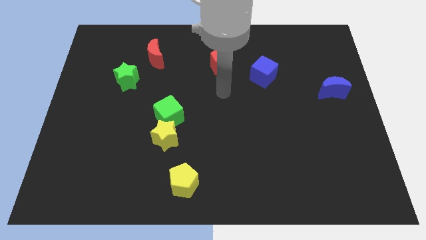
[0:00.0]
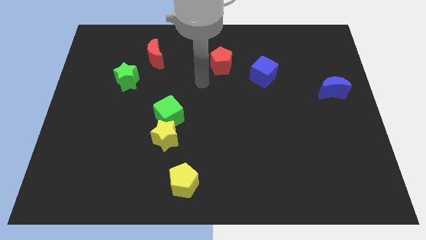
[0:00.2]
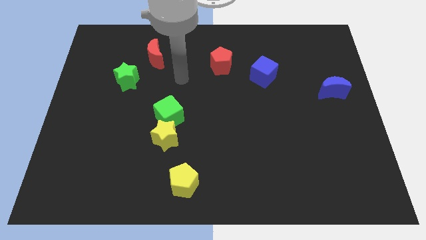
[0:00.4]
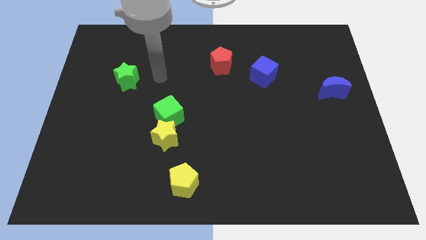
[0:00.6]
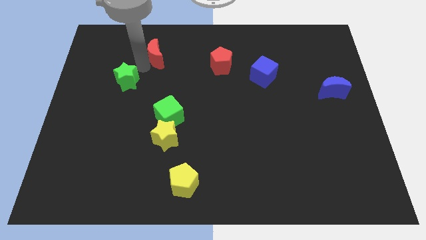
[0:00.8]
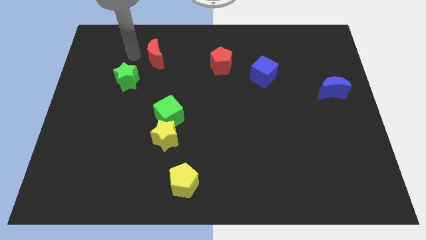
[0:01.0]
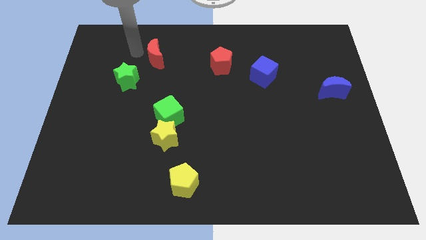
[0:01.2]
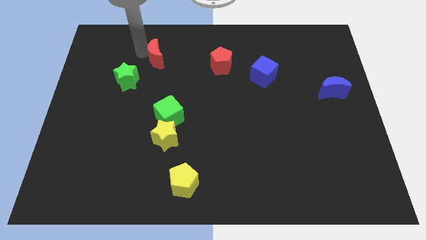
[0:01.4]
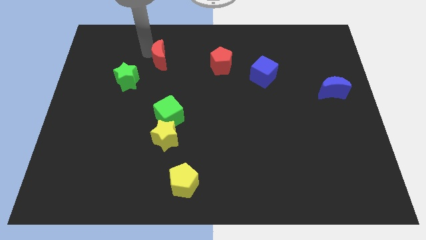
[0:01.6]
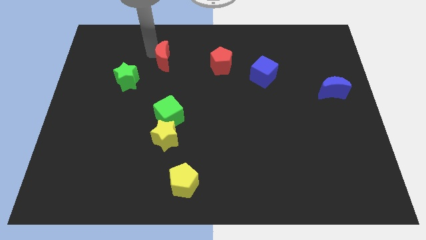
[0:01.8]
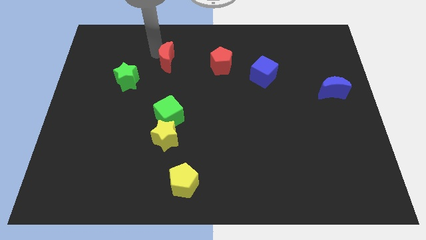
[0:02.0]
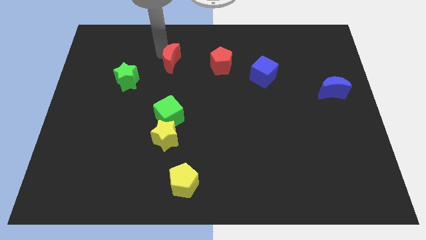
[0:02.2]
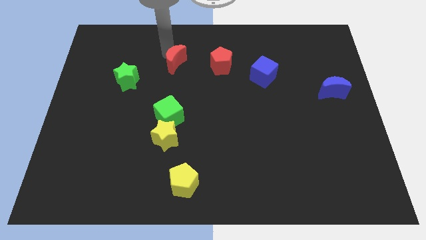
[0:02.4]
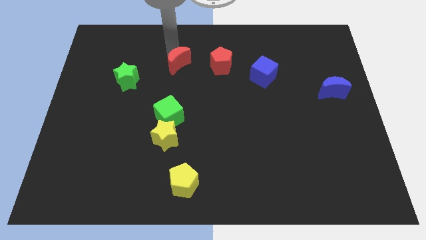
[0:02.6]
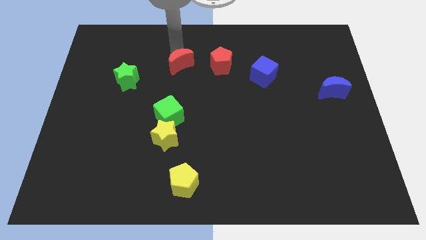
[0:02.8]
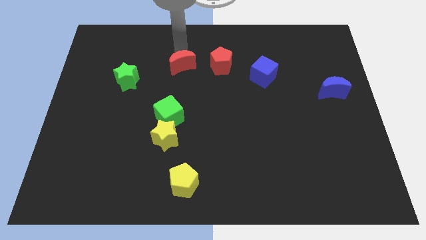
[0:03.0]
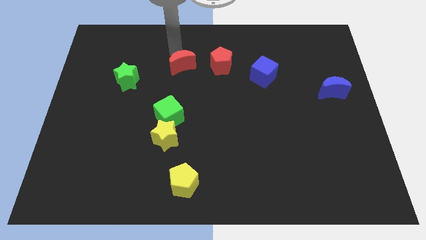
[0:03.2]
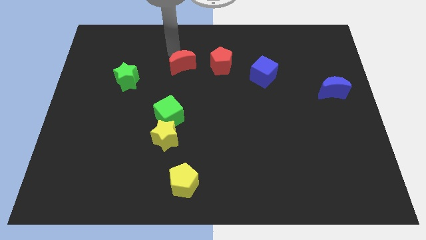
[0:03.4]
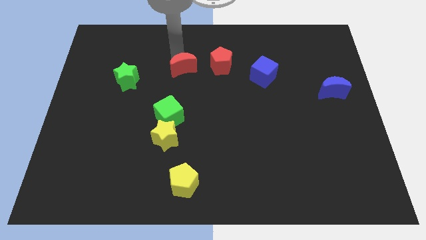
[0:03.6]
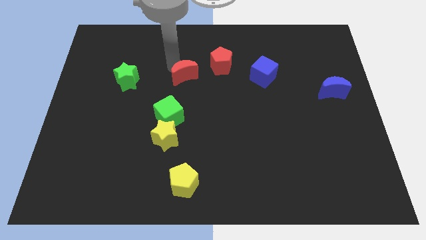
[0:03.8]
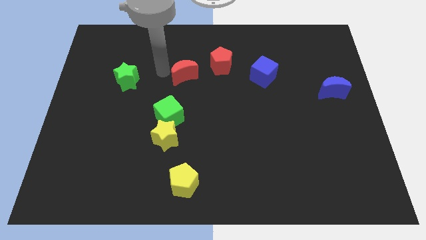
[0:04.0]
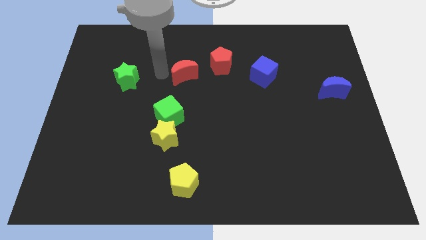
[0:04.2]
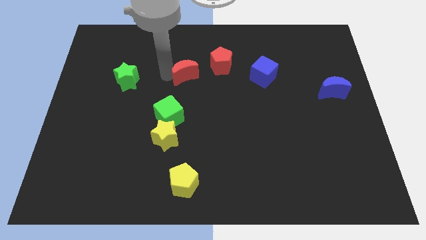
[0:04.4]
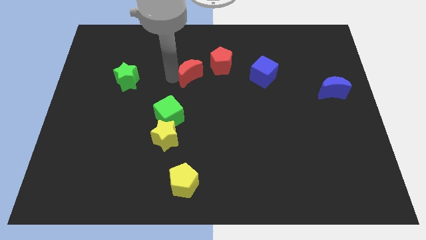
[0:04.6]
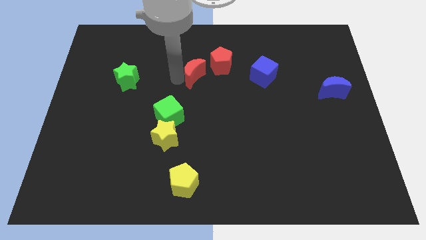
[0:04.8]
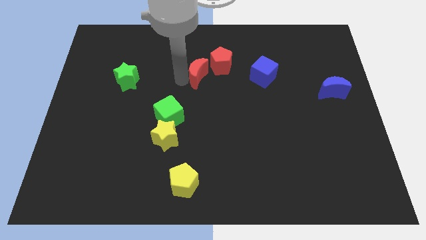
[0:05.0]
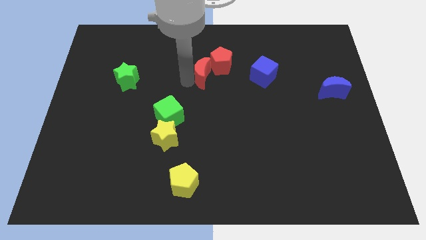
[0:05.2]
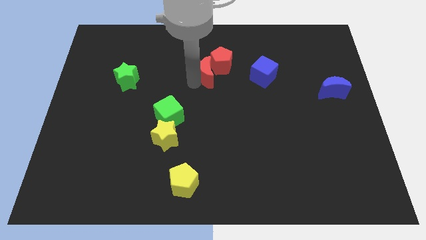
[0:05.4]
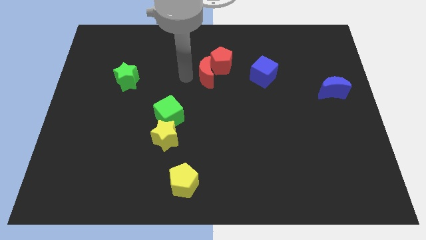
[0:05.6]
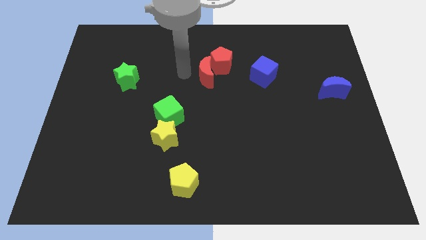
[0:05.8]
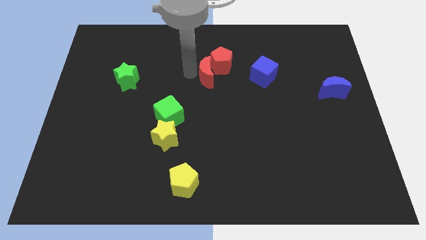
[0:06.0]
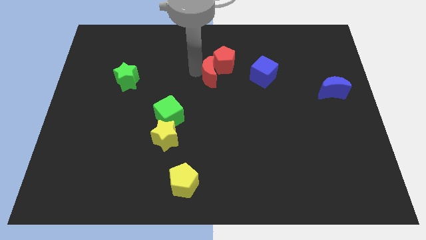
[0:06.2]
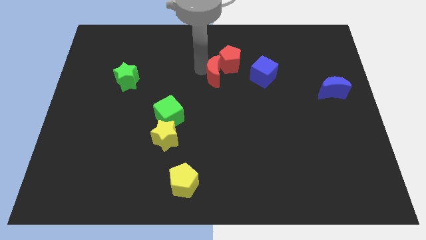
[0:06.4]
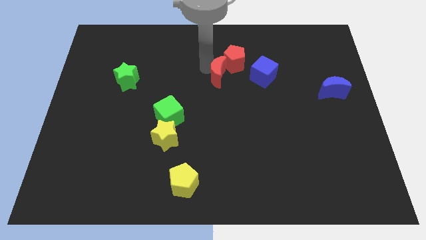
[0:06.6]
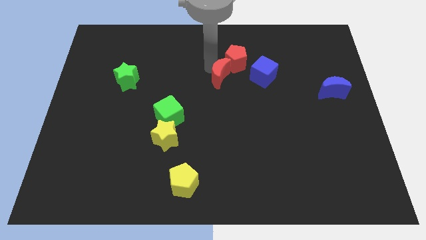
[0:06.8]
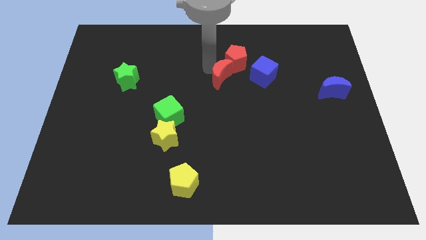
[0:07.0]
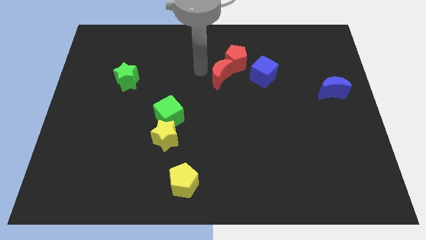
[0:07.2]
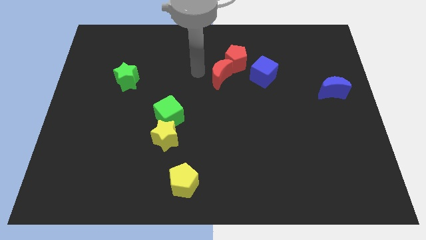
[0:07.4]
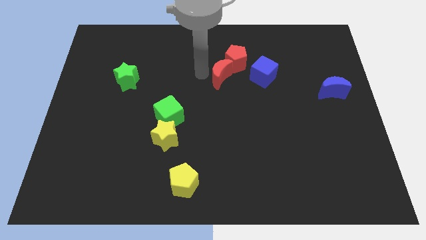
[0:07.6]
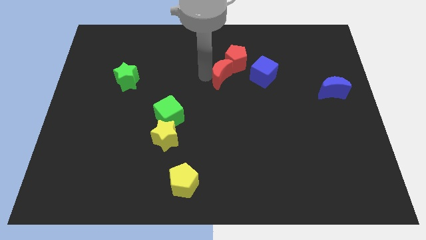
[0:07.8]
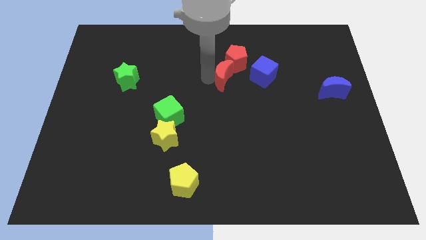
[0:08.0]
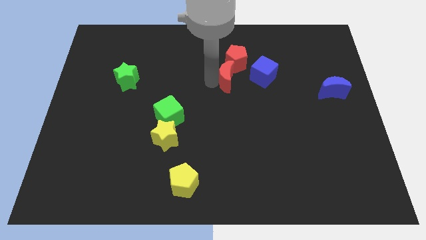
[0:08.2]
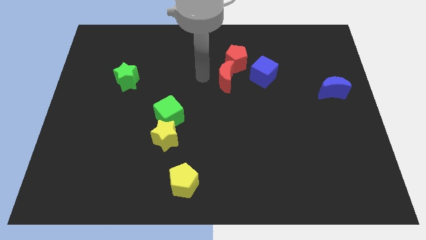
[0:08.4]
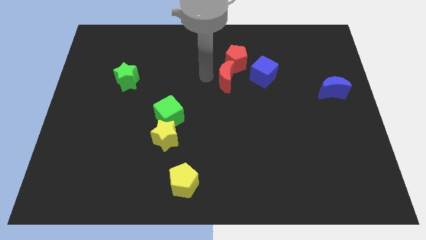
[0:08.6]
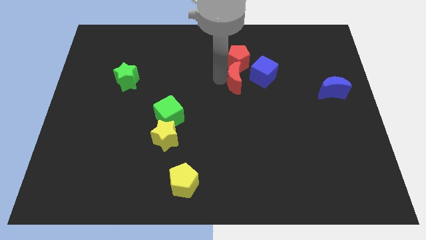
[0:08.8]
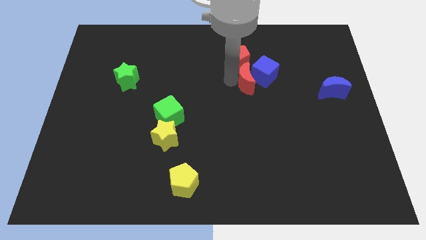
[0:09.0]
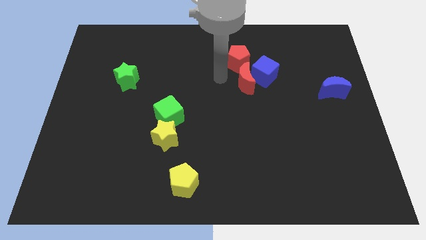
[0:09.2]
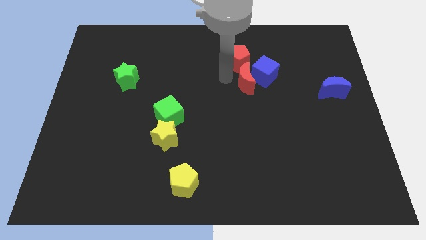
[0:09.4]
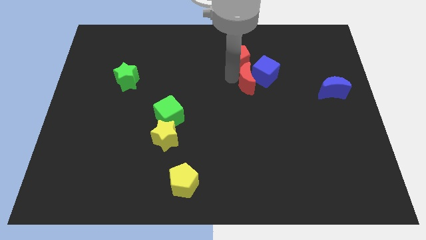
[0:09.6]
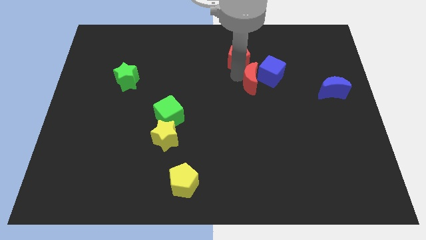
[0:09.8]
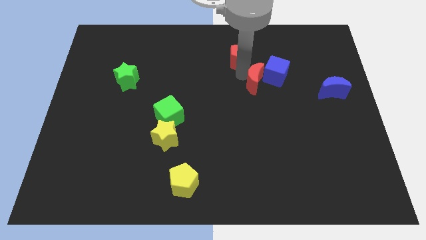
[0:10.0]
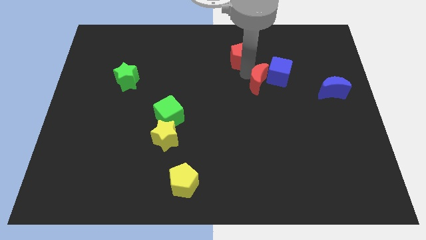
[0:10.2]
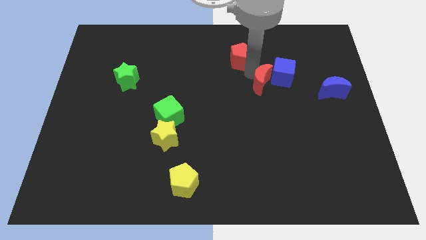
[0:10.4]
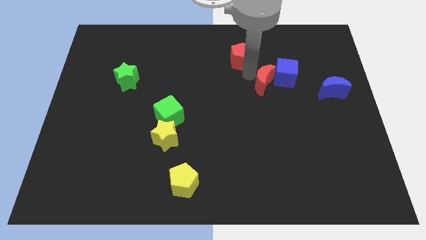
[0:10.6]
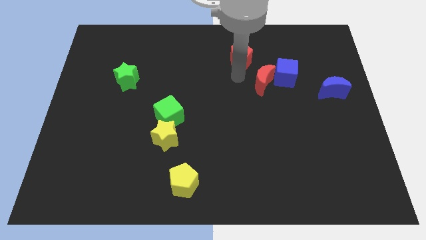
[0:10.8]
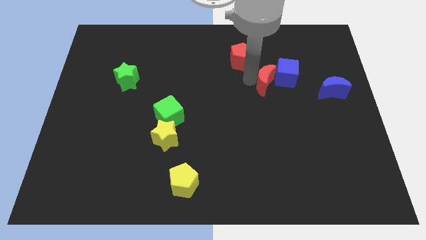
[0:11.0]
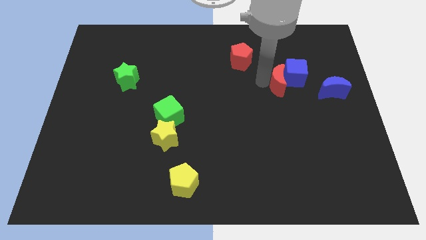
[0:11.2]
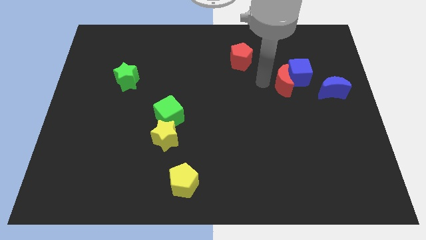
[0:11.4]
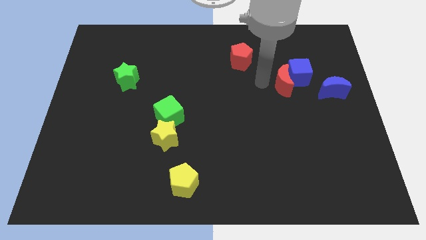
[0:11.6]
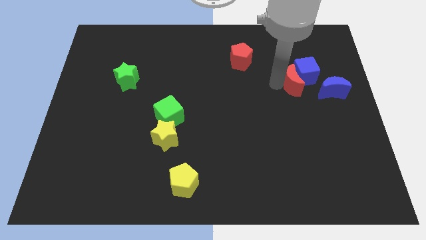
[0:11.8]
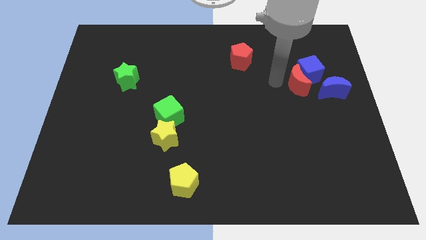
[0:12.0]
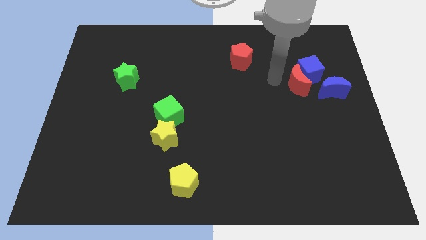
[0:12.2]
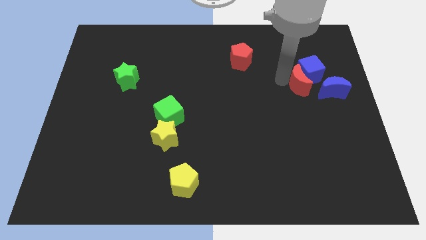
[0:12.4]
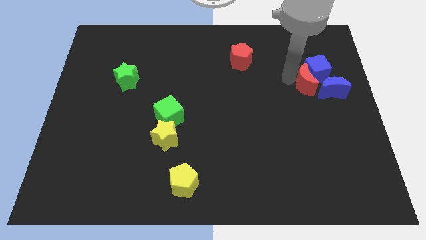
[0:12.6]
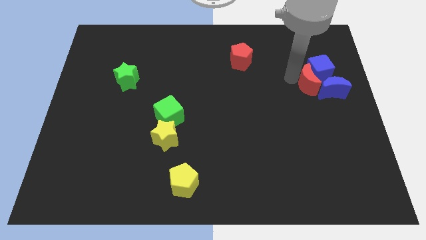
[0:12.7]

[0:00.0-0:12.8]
push the red moon close to the blue moon
